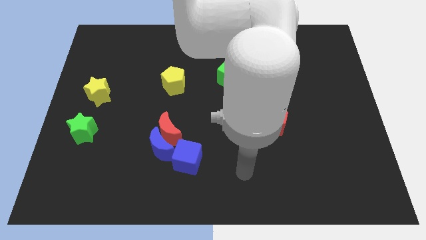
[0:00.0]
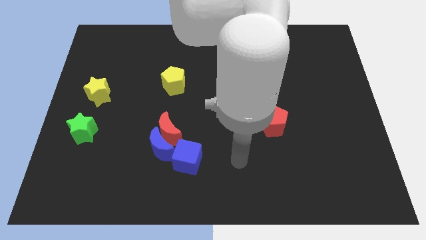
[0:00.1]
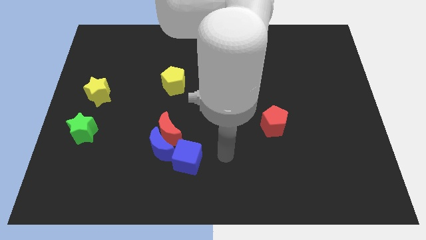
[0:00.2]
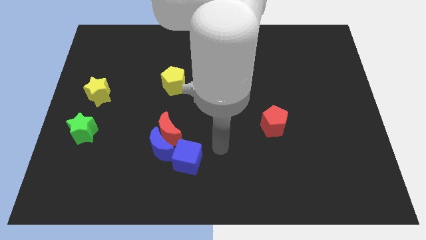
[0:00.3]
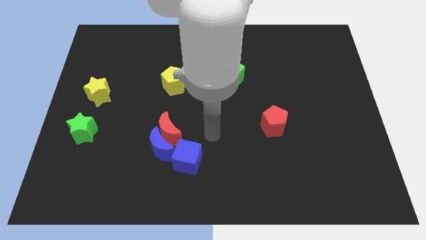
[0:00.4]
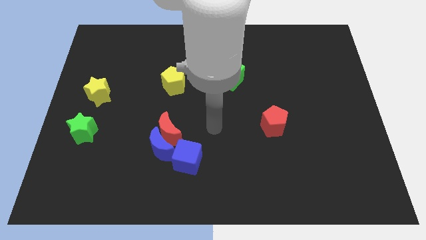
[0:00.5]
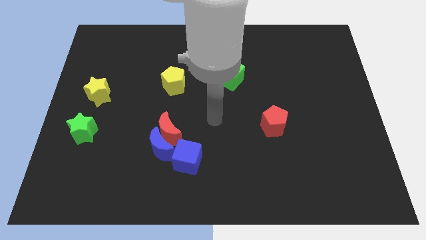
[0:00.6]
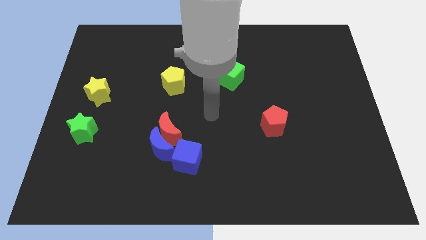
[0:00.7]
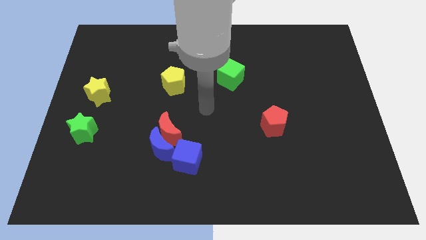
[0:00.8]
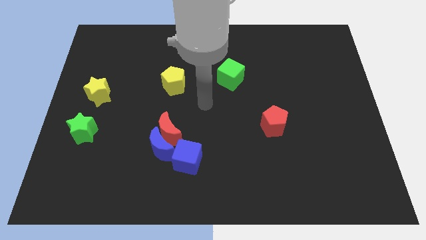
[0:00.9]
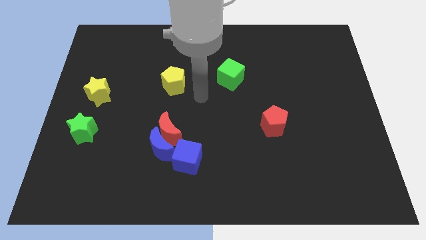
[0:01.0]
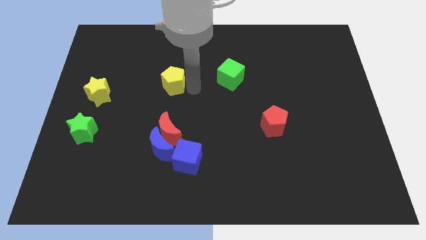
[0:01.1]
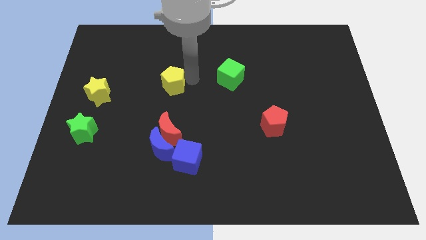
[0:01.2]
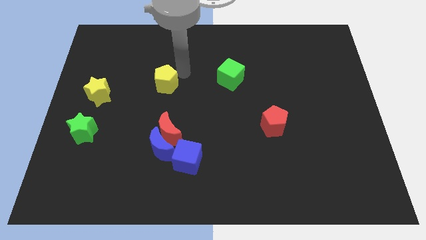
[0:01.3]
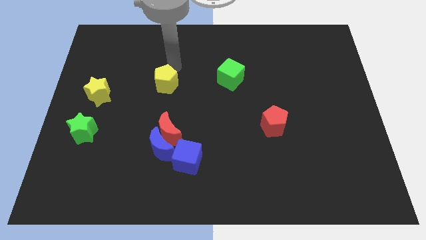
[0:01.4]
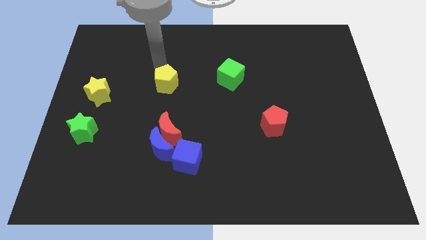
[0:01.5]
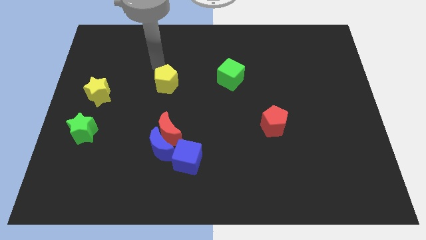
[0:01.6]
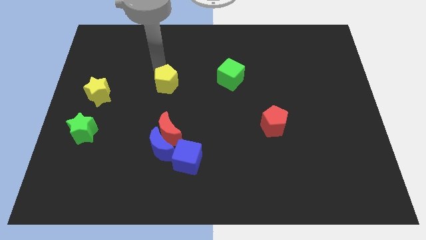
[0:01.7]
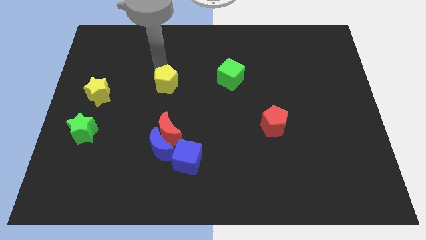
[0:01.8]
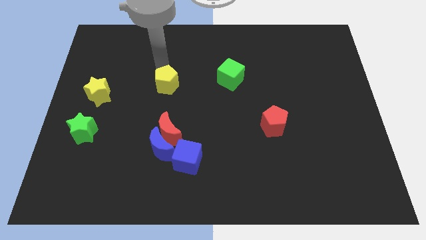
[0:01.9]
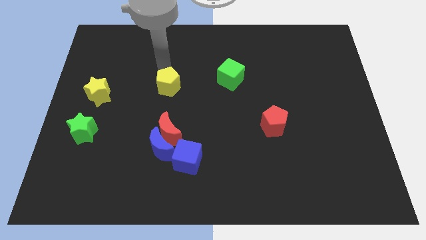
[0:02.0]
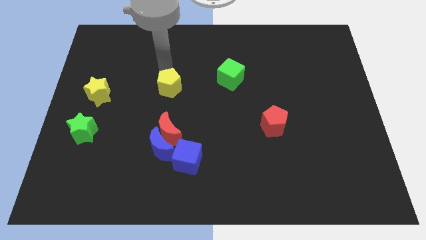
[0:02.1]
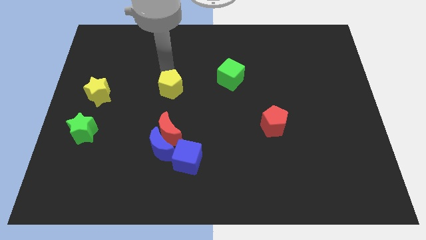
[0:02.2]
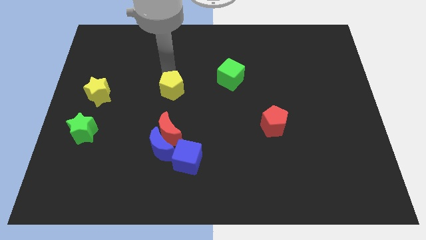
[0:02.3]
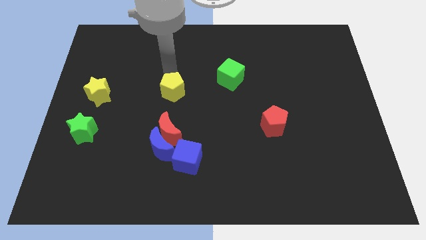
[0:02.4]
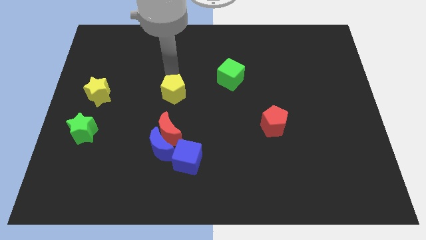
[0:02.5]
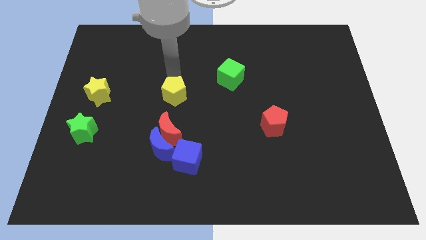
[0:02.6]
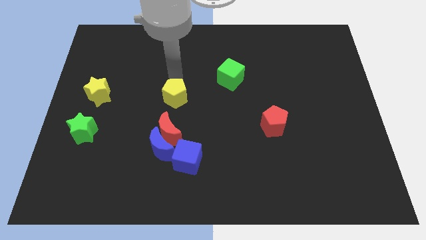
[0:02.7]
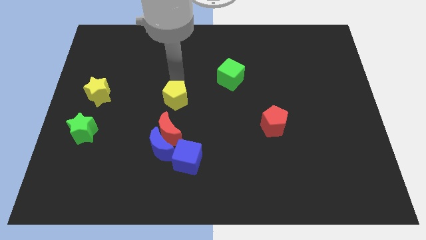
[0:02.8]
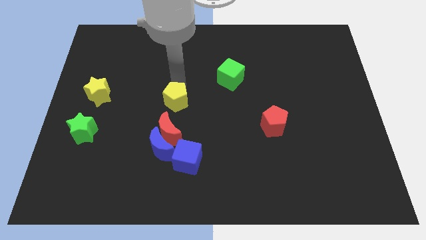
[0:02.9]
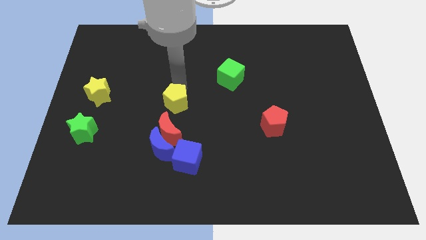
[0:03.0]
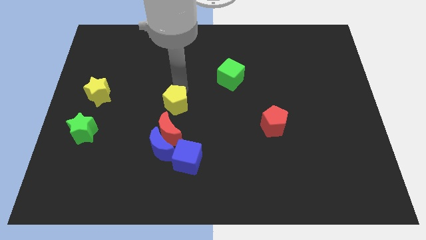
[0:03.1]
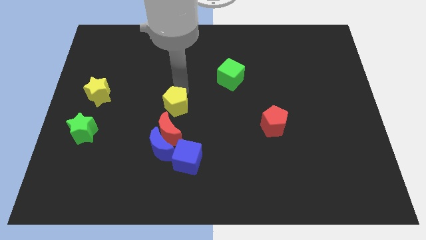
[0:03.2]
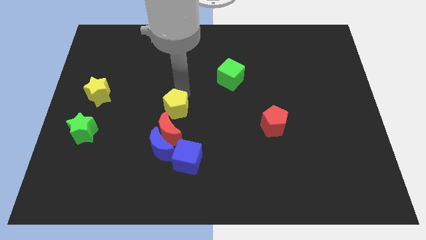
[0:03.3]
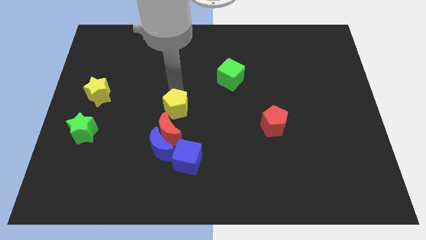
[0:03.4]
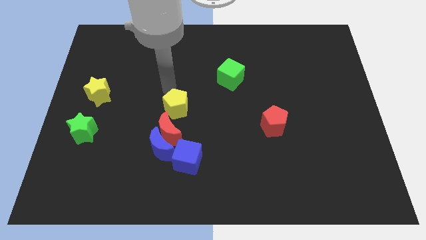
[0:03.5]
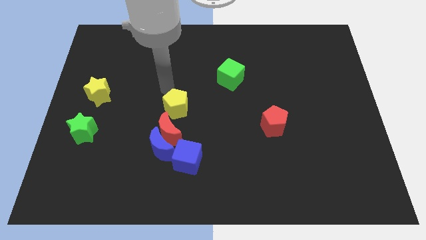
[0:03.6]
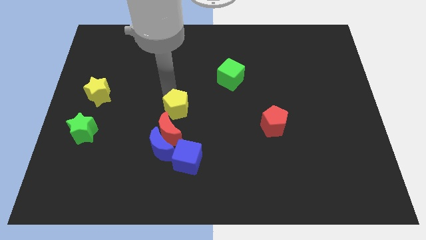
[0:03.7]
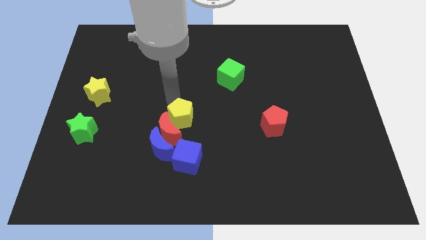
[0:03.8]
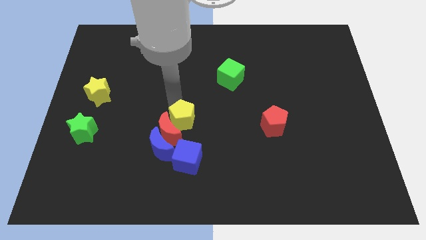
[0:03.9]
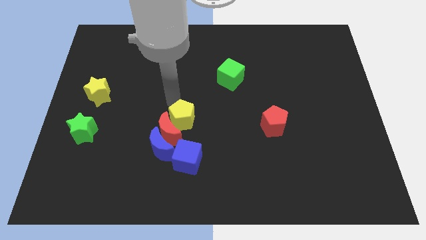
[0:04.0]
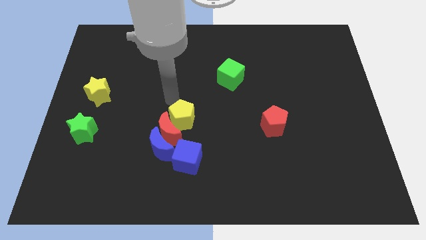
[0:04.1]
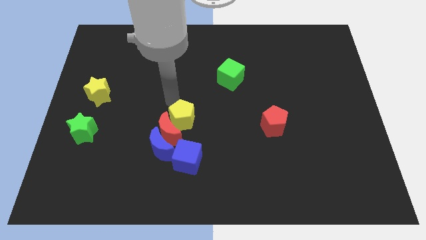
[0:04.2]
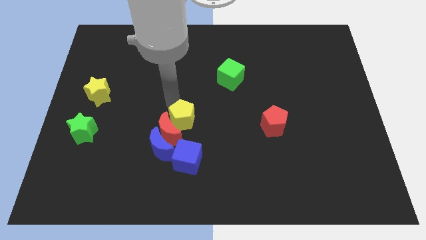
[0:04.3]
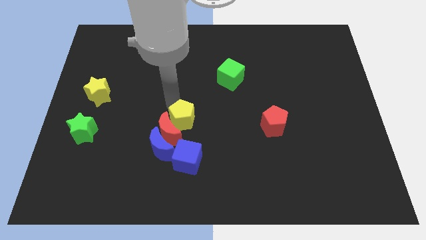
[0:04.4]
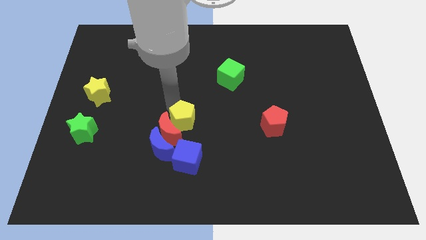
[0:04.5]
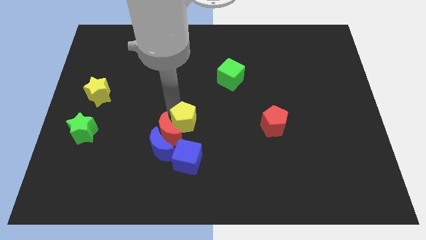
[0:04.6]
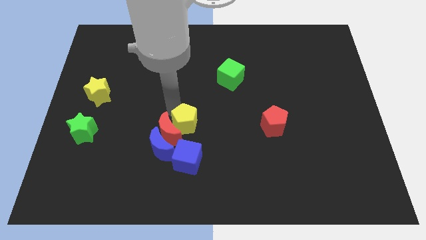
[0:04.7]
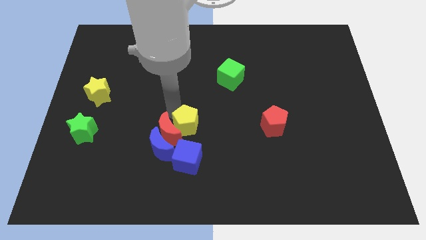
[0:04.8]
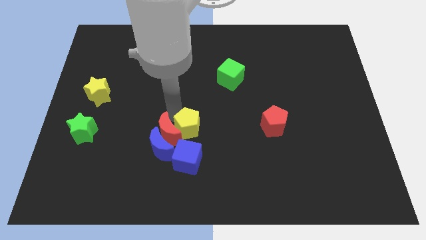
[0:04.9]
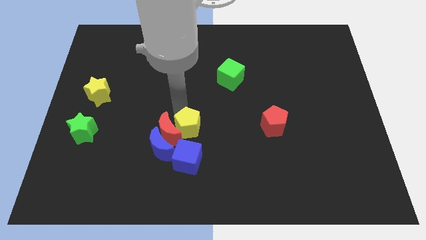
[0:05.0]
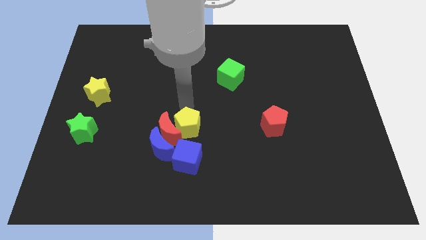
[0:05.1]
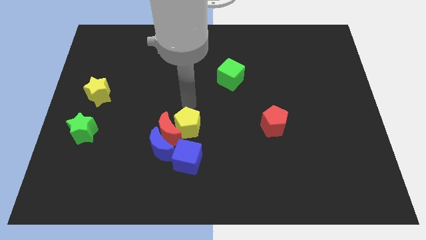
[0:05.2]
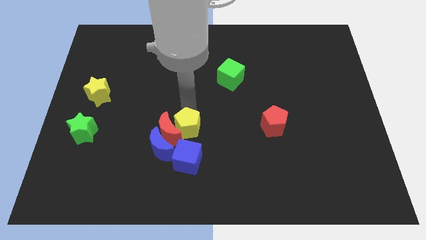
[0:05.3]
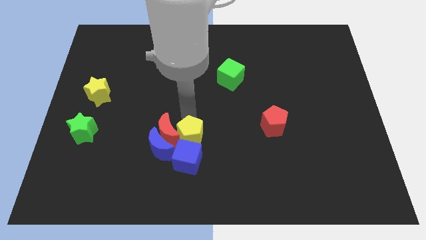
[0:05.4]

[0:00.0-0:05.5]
put the yellow pentagon next to the blue cube

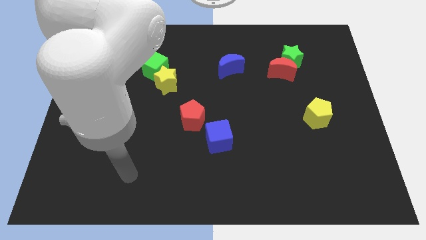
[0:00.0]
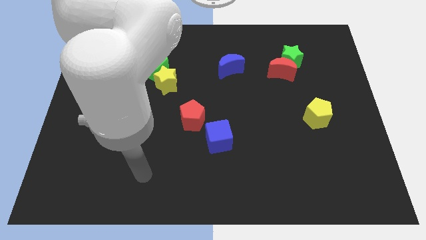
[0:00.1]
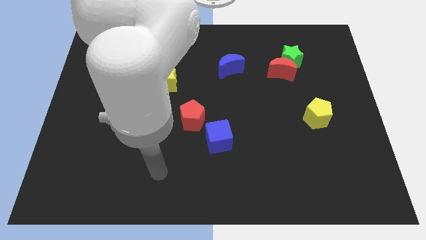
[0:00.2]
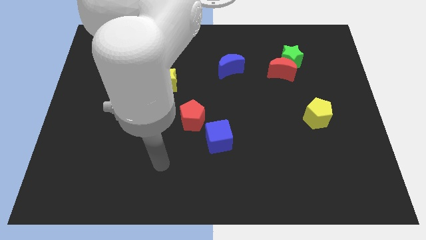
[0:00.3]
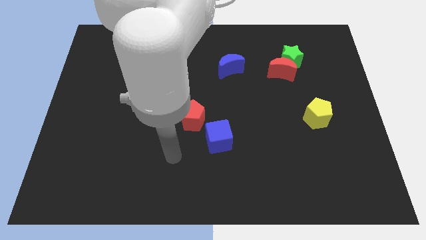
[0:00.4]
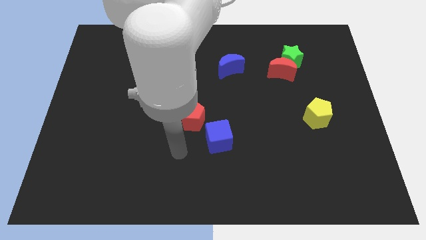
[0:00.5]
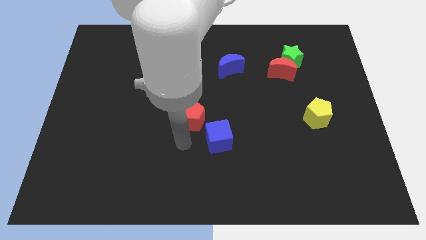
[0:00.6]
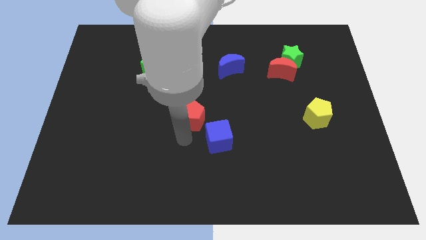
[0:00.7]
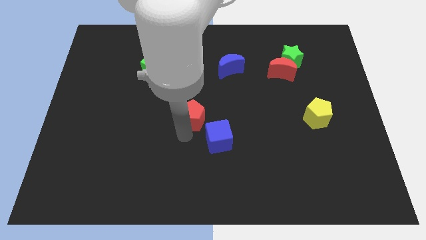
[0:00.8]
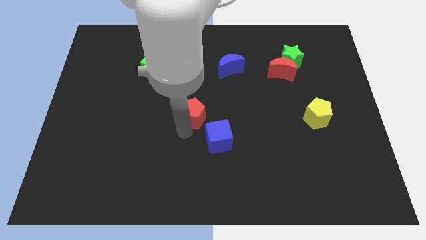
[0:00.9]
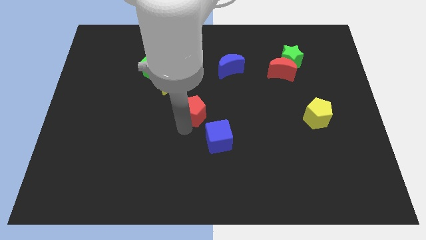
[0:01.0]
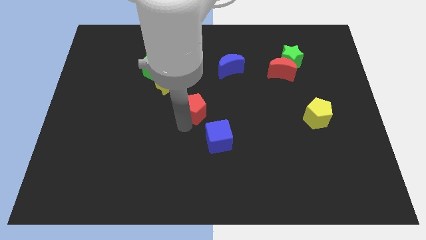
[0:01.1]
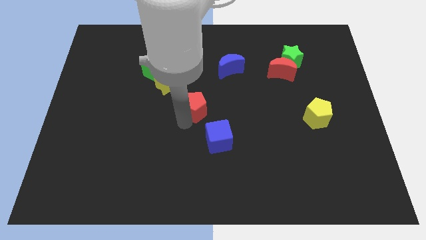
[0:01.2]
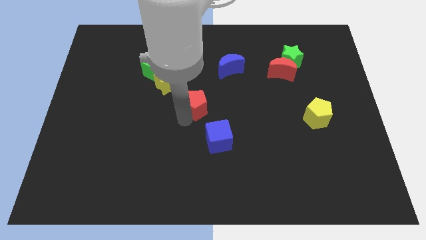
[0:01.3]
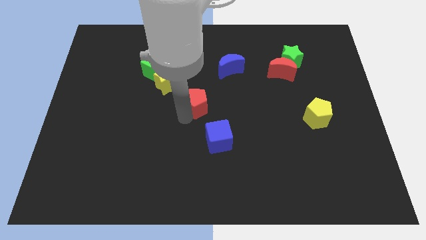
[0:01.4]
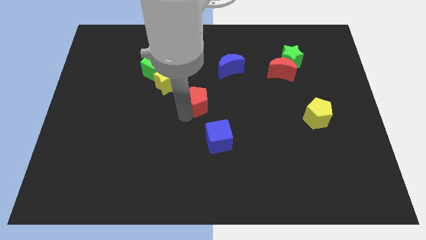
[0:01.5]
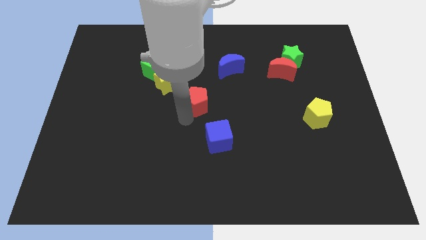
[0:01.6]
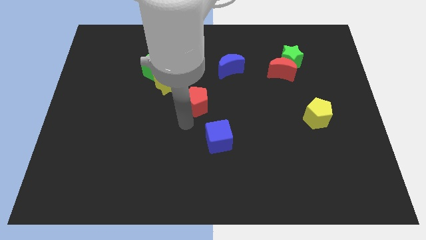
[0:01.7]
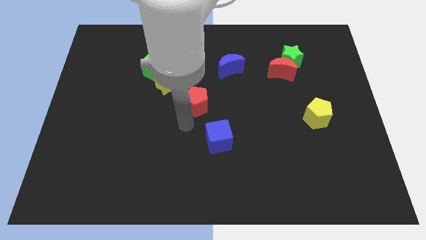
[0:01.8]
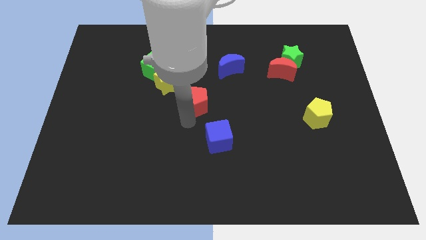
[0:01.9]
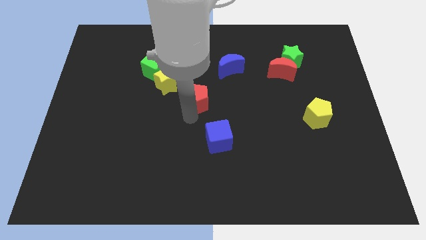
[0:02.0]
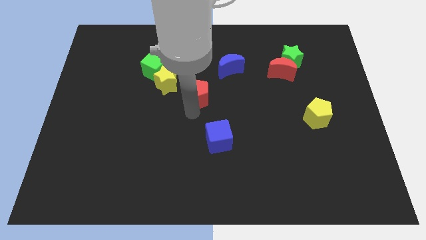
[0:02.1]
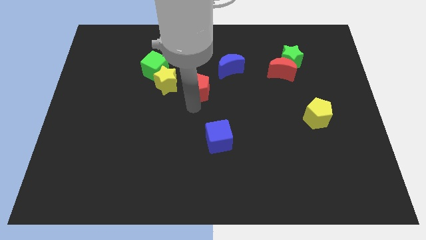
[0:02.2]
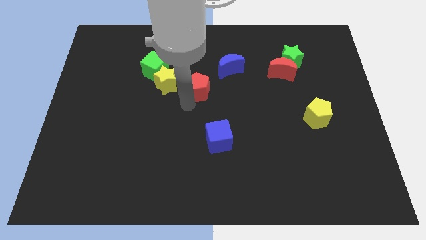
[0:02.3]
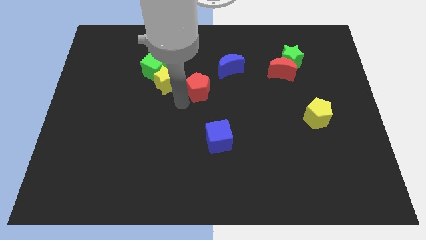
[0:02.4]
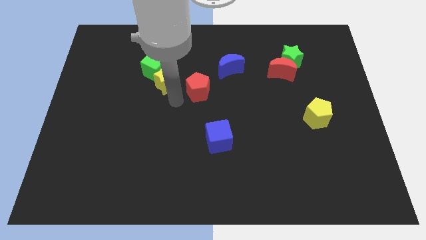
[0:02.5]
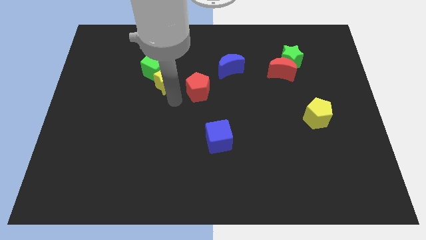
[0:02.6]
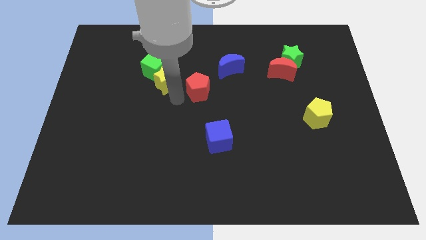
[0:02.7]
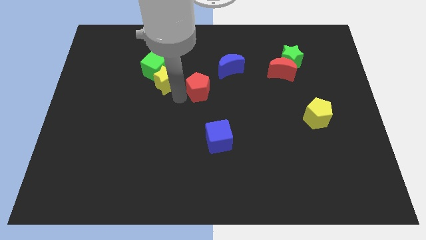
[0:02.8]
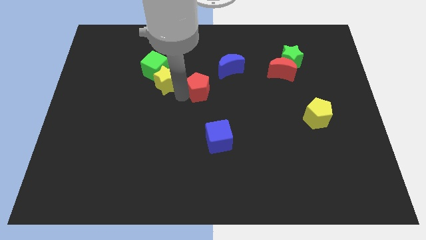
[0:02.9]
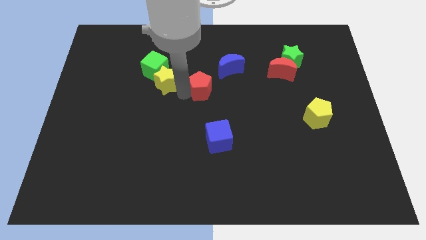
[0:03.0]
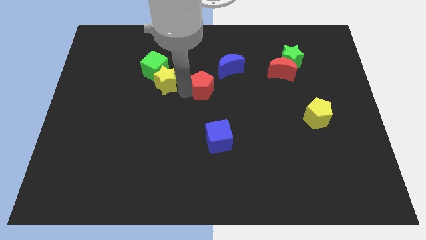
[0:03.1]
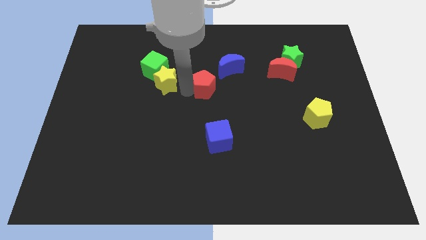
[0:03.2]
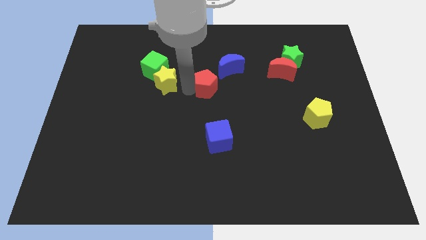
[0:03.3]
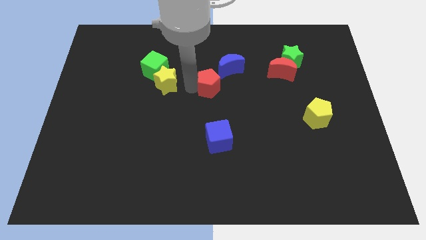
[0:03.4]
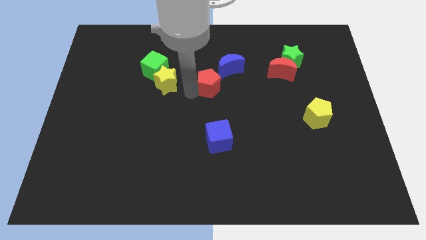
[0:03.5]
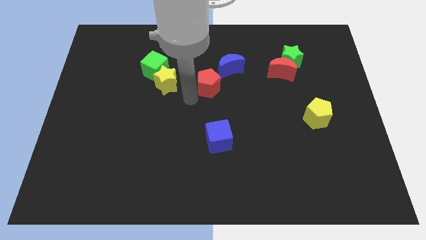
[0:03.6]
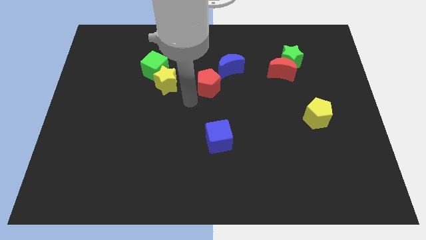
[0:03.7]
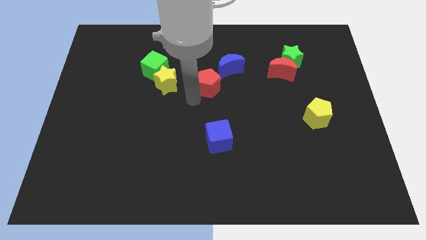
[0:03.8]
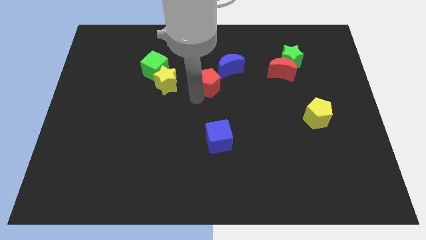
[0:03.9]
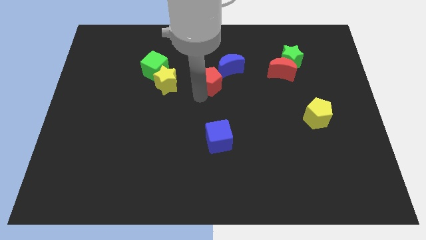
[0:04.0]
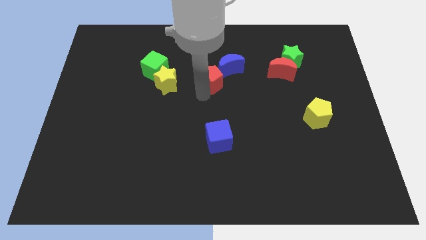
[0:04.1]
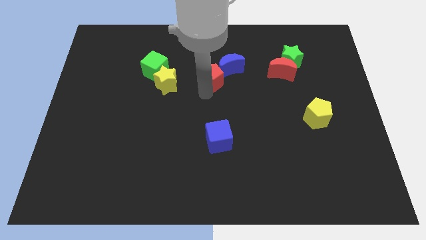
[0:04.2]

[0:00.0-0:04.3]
move the red pentagon next to the blue moon
